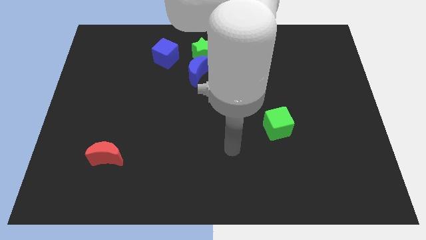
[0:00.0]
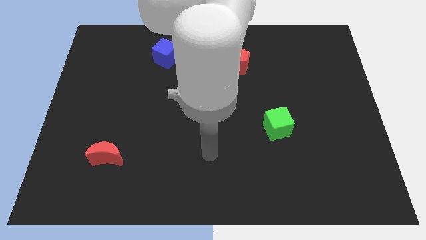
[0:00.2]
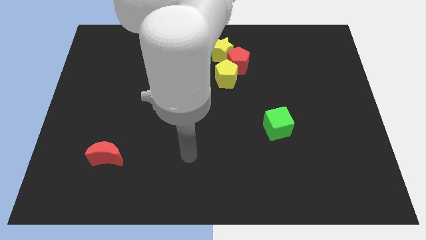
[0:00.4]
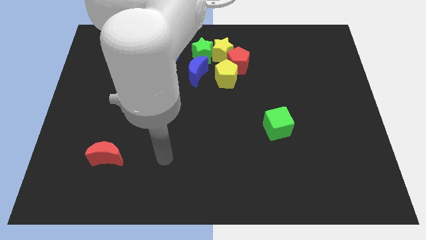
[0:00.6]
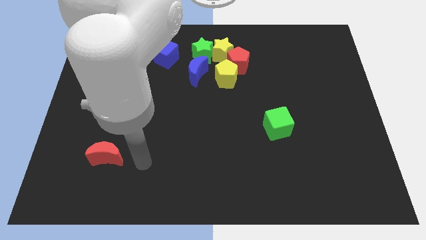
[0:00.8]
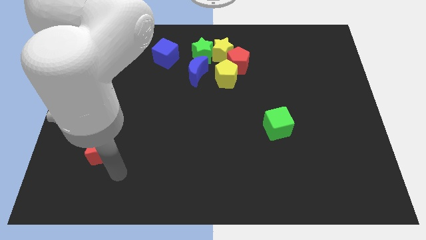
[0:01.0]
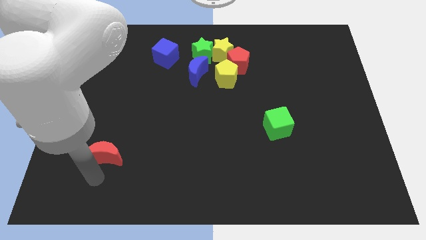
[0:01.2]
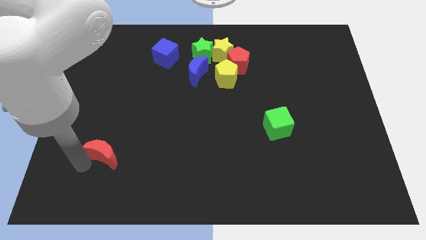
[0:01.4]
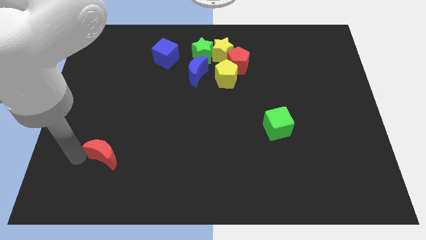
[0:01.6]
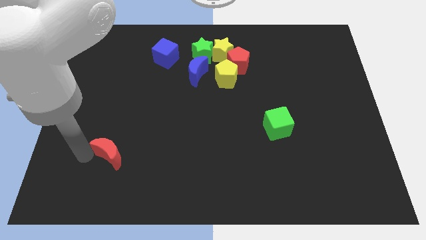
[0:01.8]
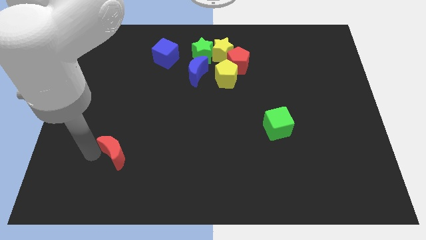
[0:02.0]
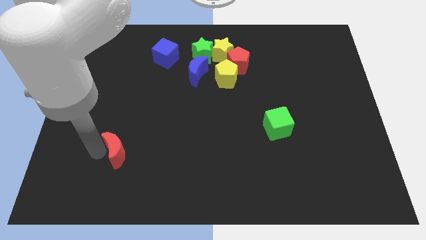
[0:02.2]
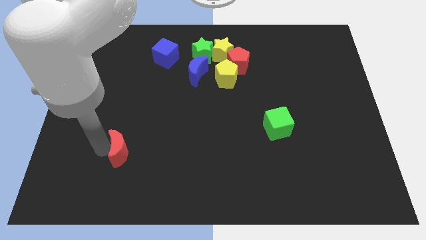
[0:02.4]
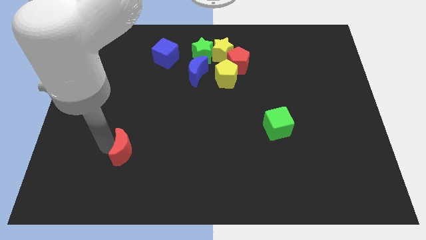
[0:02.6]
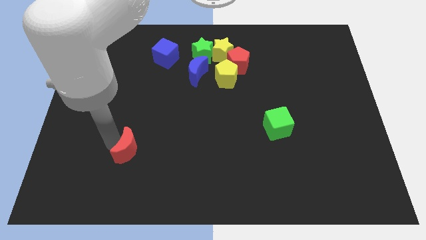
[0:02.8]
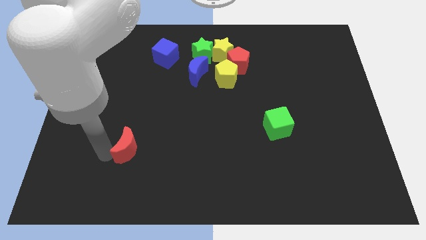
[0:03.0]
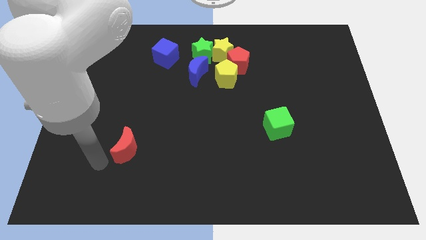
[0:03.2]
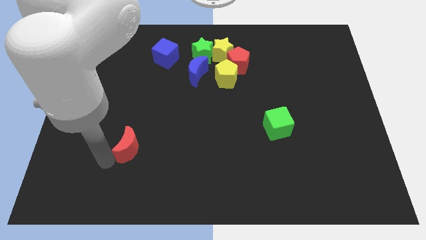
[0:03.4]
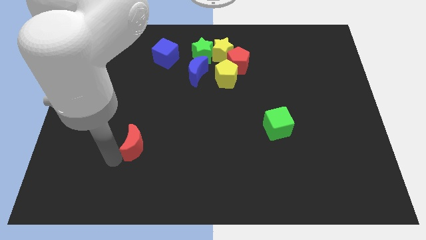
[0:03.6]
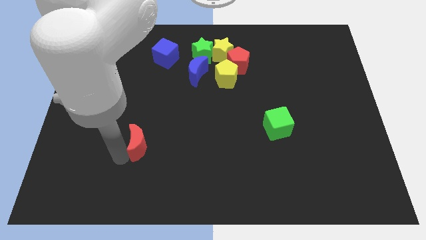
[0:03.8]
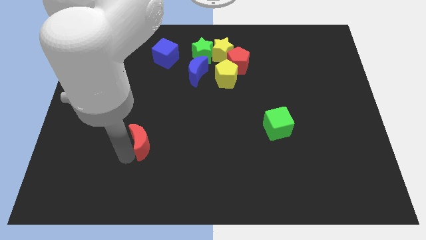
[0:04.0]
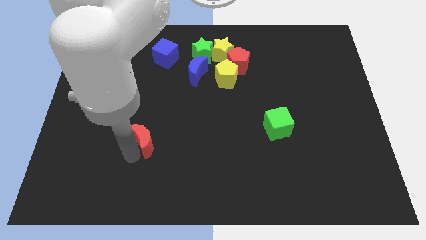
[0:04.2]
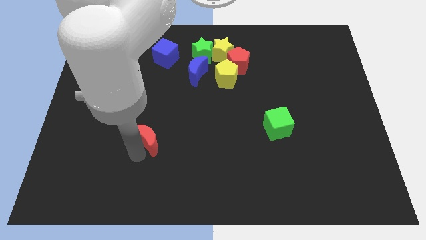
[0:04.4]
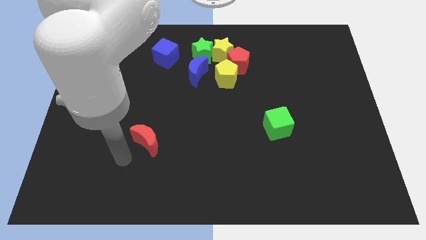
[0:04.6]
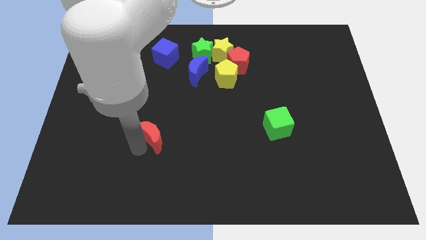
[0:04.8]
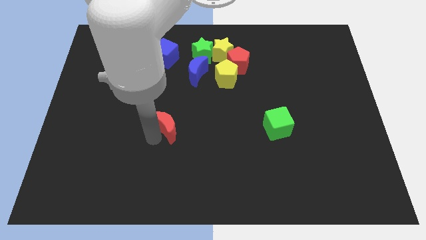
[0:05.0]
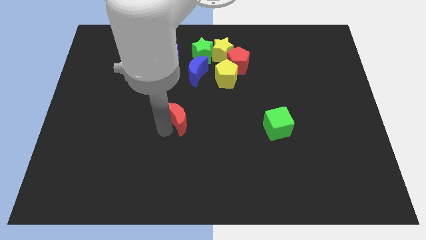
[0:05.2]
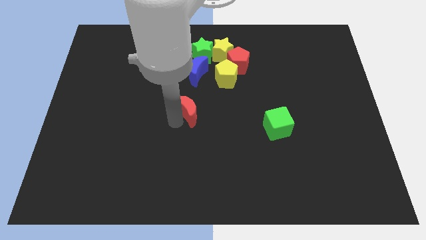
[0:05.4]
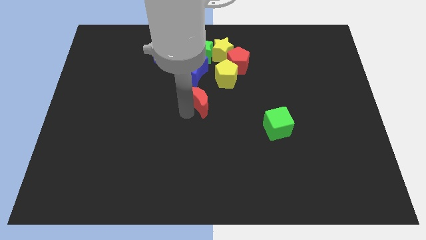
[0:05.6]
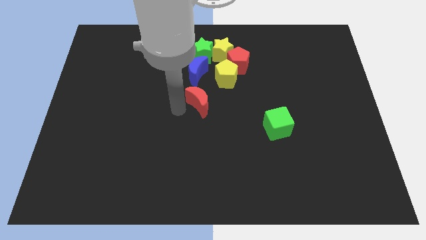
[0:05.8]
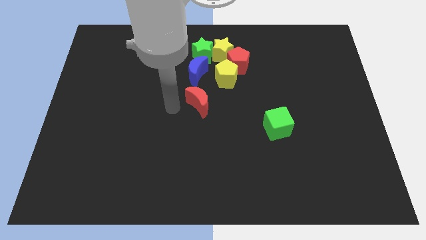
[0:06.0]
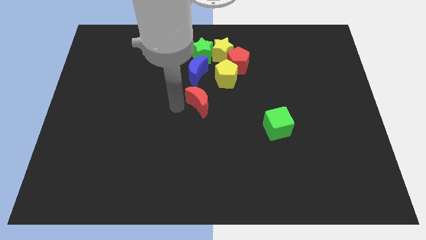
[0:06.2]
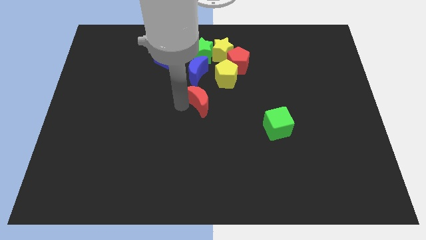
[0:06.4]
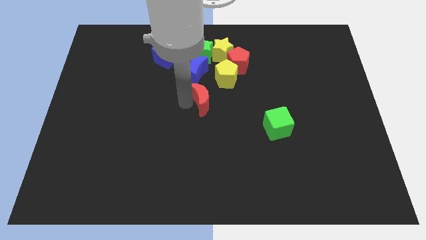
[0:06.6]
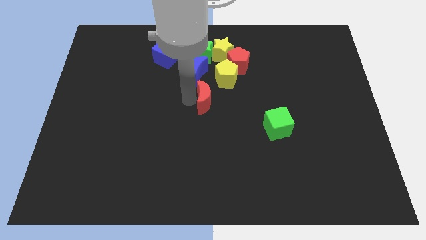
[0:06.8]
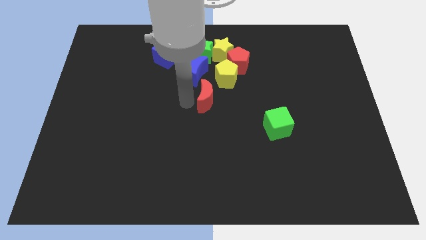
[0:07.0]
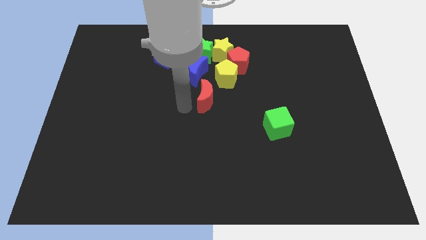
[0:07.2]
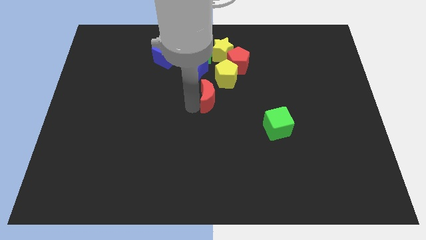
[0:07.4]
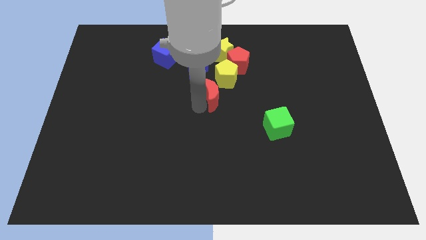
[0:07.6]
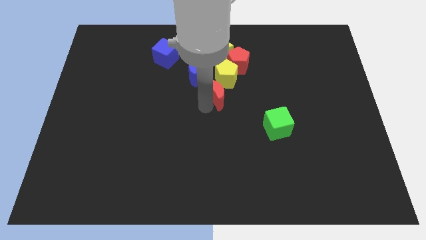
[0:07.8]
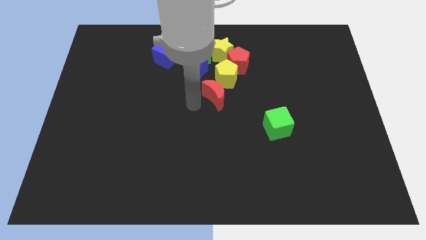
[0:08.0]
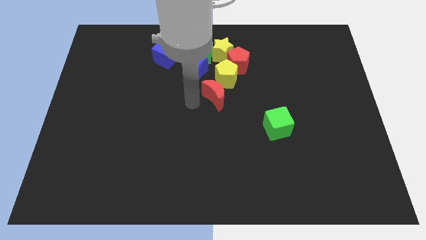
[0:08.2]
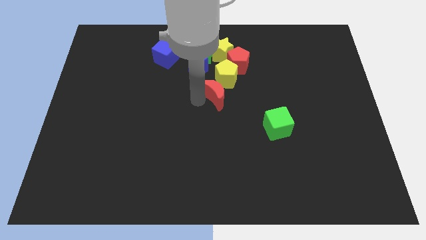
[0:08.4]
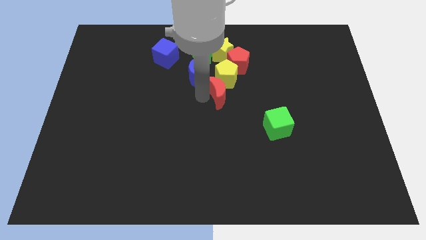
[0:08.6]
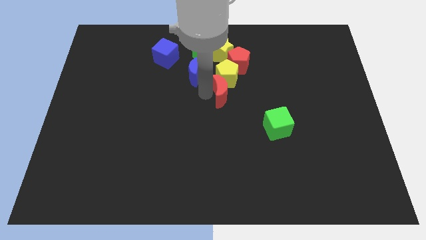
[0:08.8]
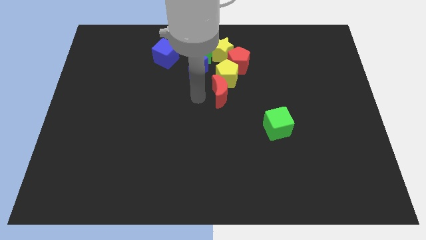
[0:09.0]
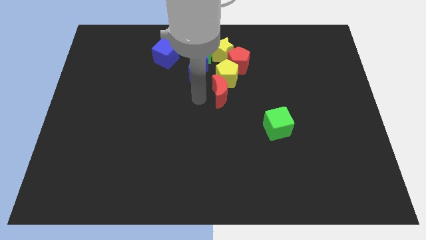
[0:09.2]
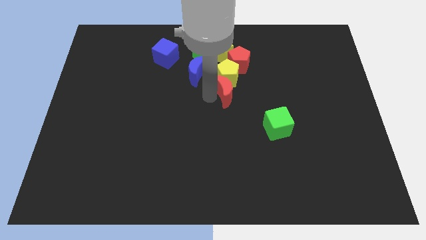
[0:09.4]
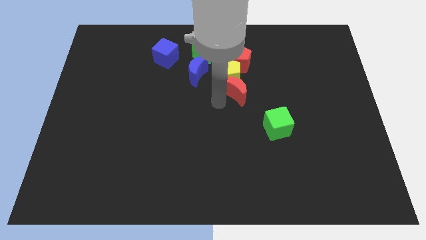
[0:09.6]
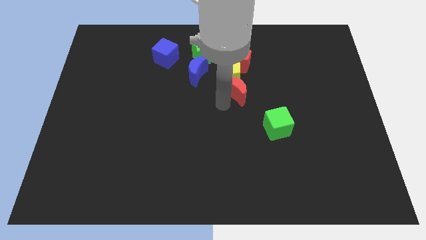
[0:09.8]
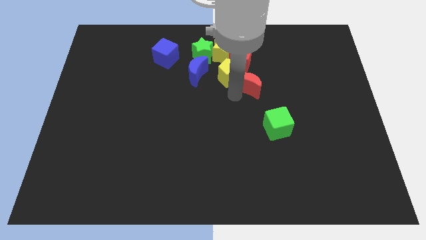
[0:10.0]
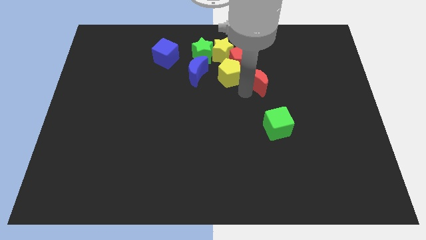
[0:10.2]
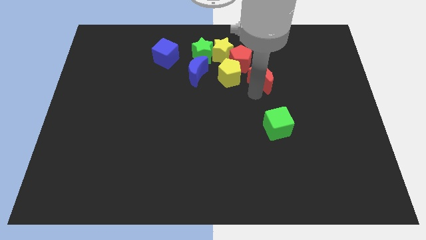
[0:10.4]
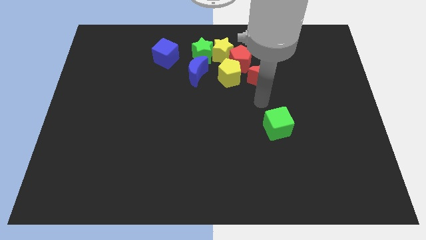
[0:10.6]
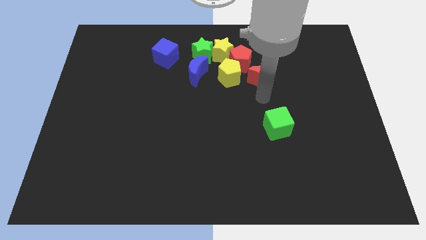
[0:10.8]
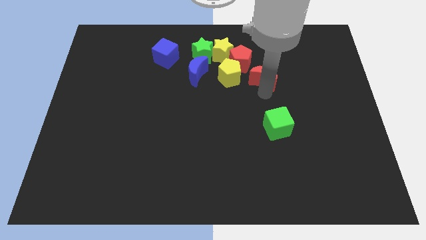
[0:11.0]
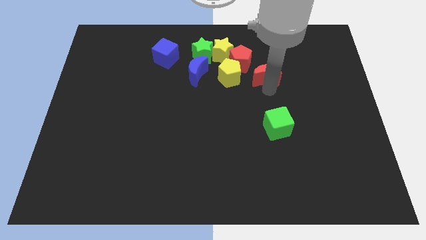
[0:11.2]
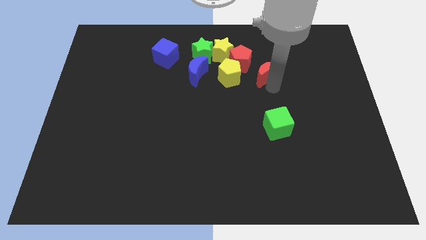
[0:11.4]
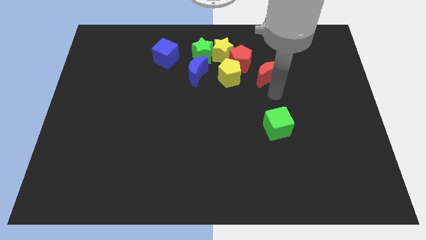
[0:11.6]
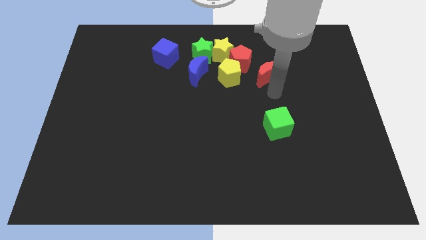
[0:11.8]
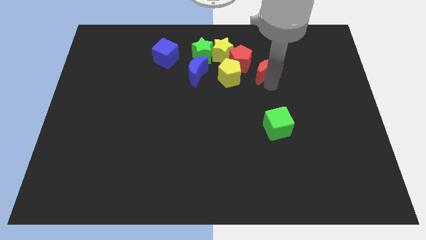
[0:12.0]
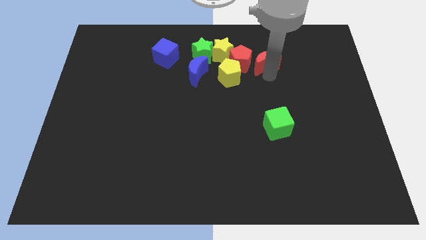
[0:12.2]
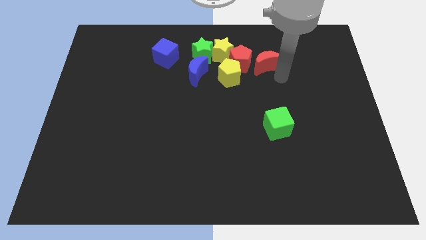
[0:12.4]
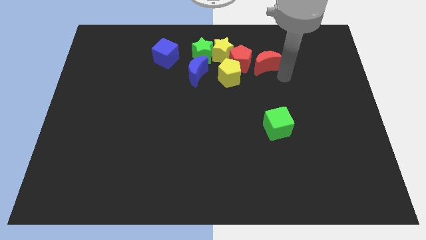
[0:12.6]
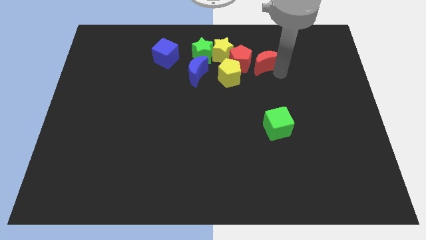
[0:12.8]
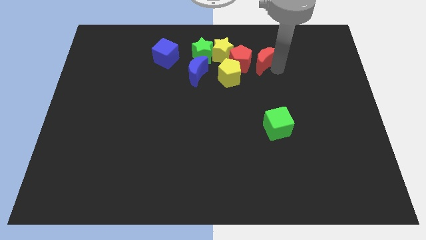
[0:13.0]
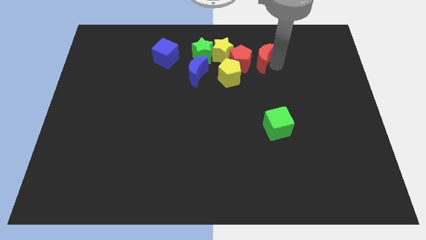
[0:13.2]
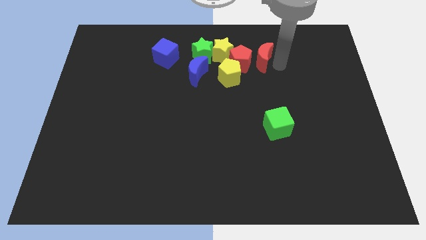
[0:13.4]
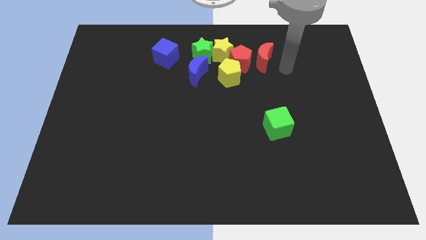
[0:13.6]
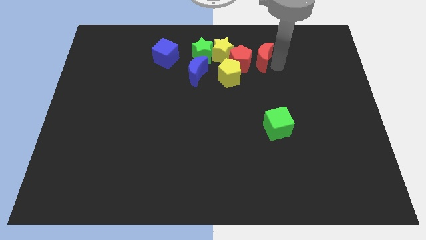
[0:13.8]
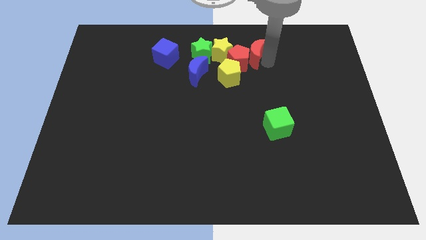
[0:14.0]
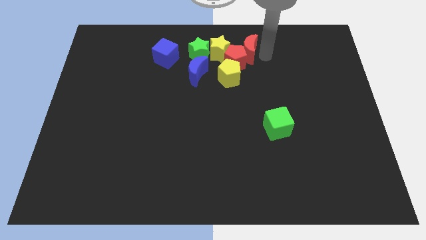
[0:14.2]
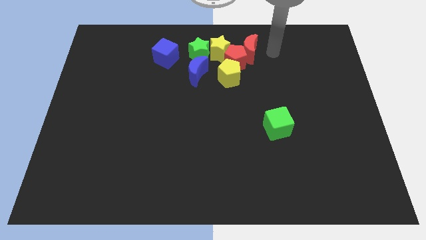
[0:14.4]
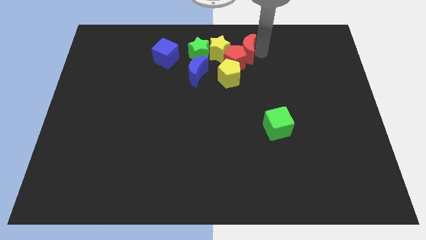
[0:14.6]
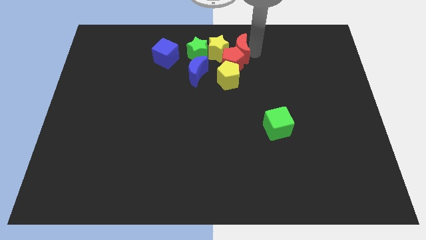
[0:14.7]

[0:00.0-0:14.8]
put the red moon next to the yellow star
